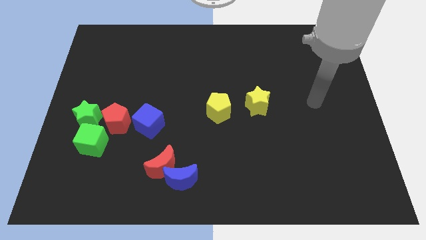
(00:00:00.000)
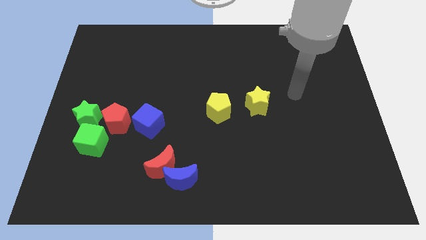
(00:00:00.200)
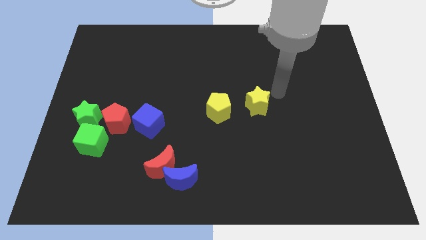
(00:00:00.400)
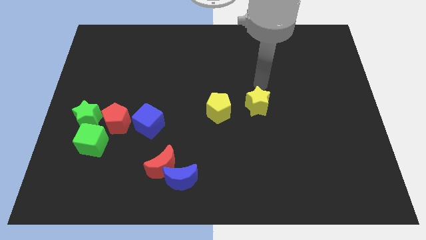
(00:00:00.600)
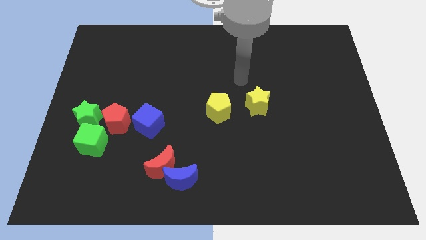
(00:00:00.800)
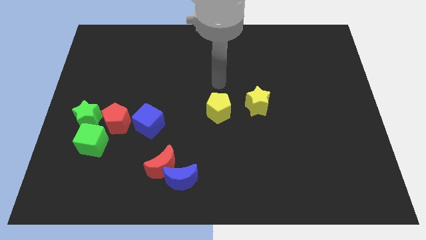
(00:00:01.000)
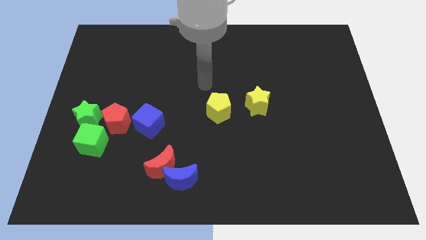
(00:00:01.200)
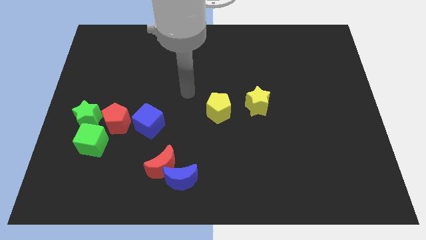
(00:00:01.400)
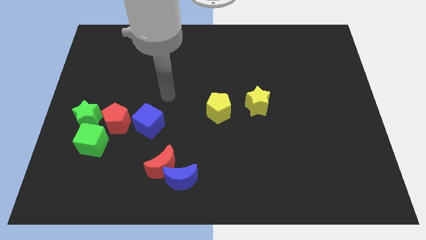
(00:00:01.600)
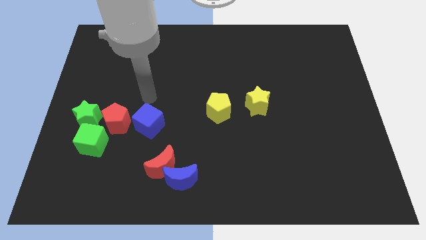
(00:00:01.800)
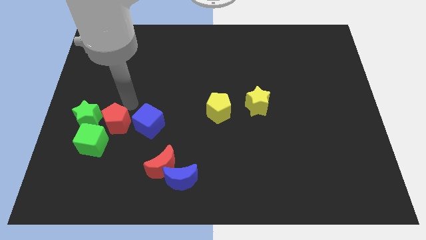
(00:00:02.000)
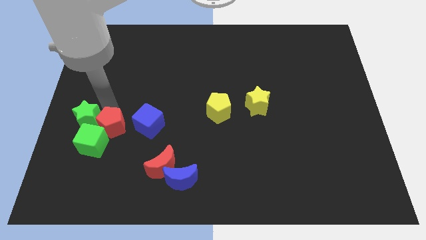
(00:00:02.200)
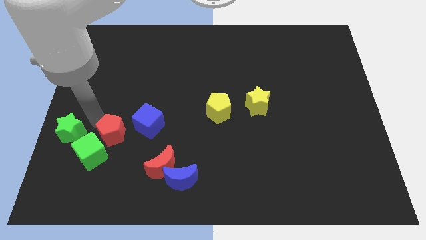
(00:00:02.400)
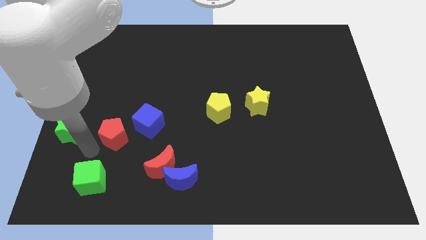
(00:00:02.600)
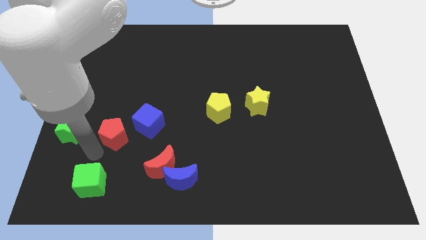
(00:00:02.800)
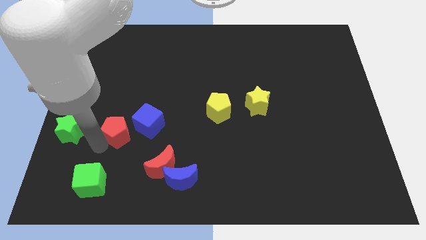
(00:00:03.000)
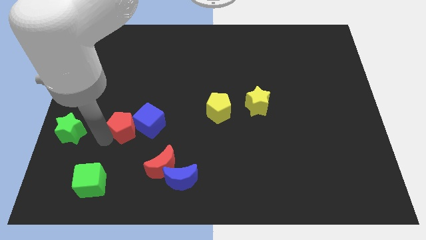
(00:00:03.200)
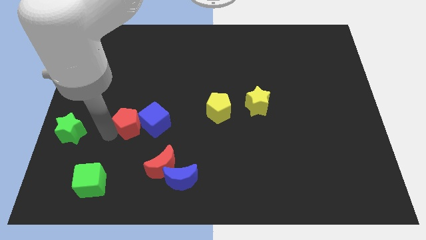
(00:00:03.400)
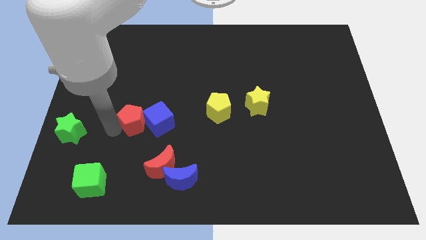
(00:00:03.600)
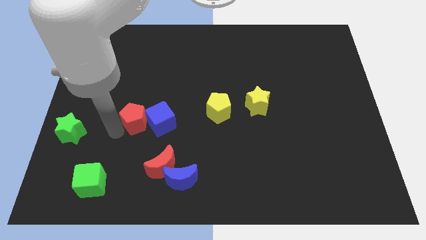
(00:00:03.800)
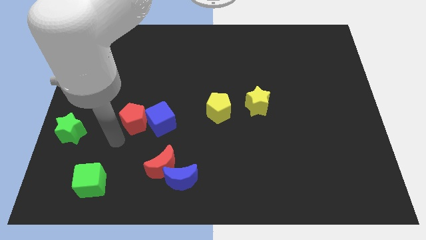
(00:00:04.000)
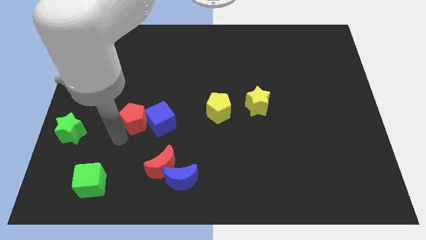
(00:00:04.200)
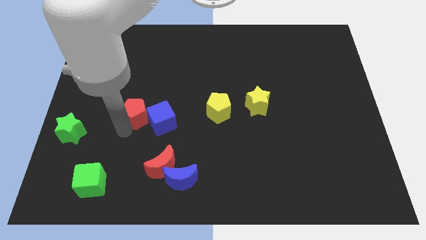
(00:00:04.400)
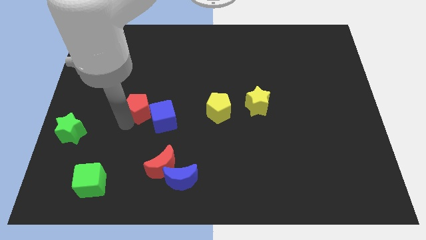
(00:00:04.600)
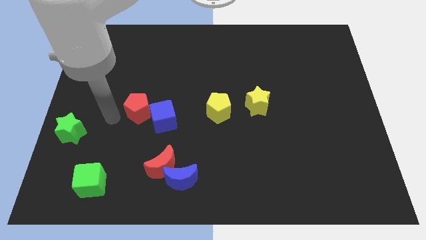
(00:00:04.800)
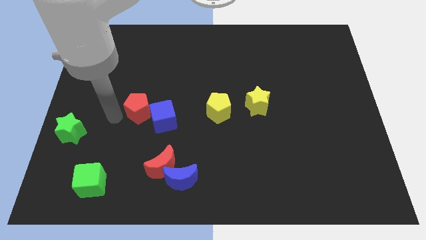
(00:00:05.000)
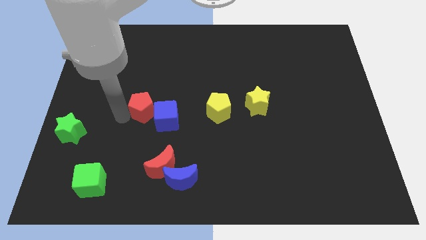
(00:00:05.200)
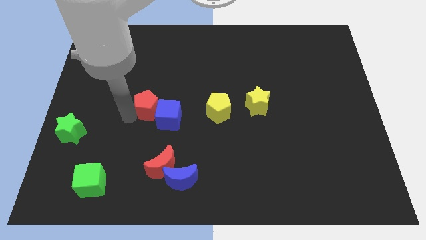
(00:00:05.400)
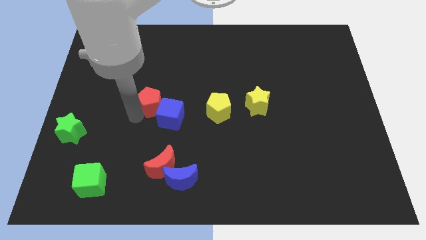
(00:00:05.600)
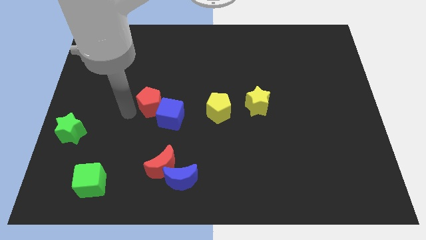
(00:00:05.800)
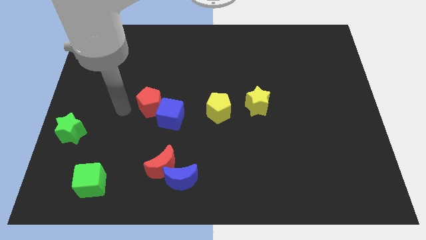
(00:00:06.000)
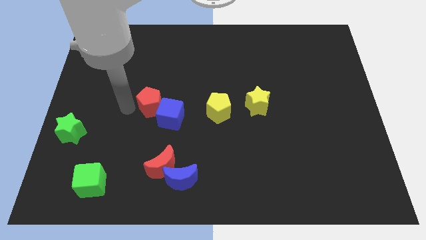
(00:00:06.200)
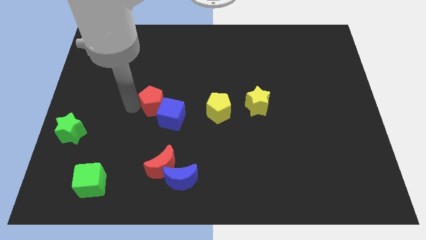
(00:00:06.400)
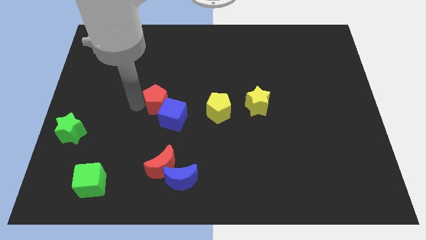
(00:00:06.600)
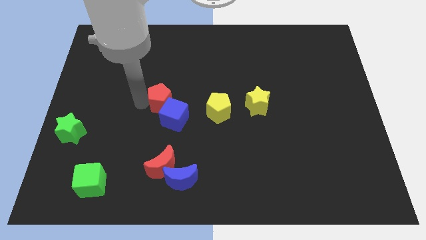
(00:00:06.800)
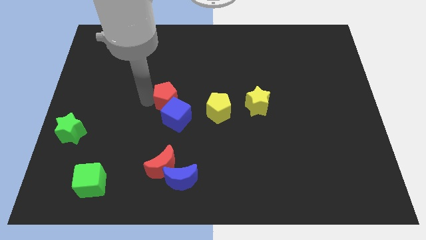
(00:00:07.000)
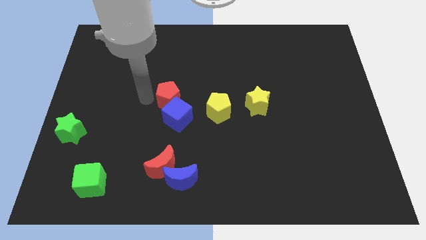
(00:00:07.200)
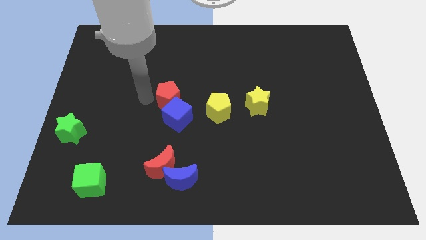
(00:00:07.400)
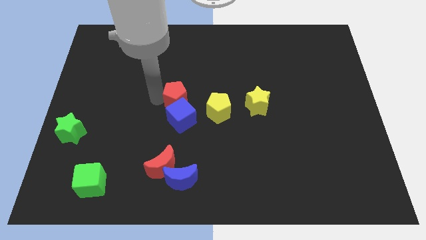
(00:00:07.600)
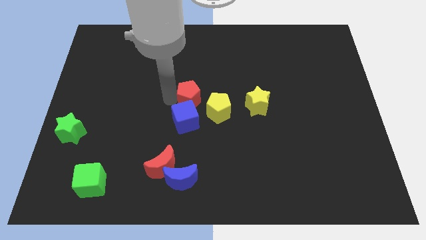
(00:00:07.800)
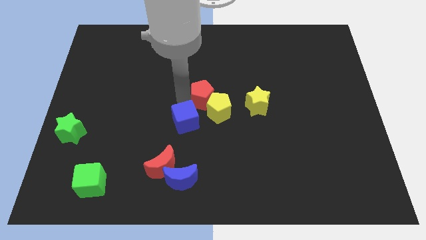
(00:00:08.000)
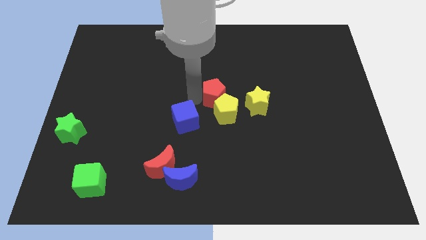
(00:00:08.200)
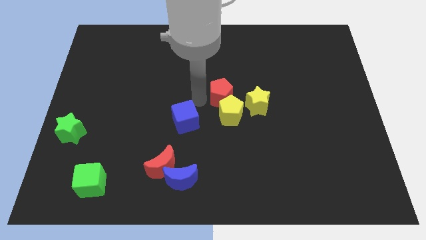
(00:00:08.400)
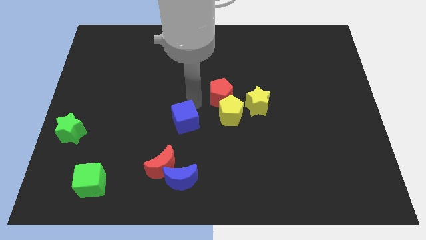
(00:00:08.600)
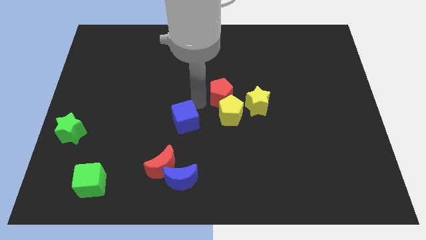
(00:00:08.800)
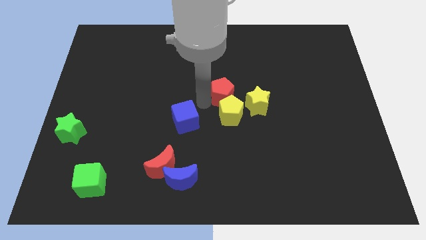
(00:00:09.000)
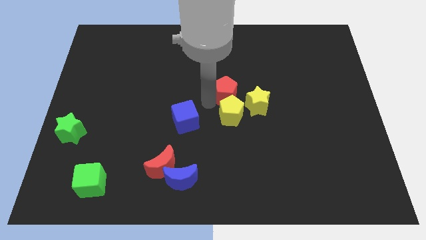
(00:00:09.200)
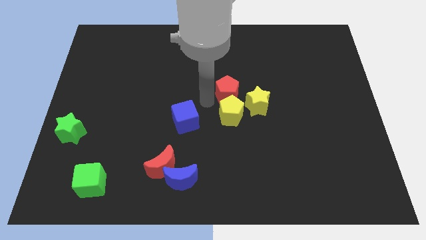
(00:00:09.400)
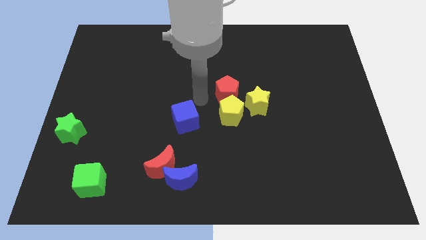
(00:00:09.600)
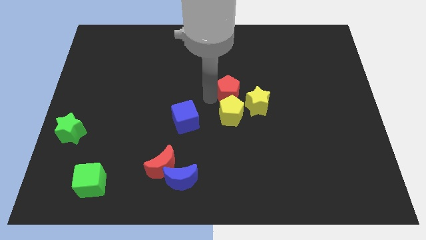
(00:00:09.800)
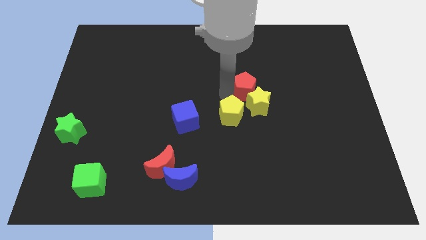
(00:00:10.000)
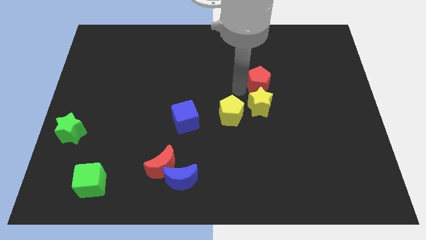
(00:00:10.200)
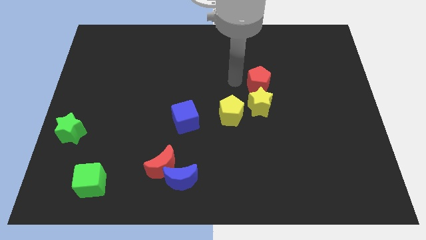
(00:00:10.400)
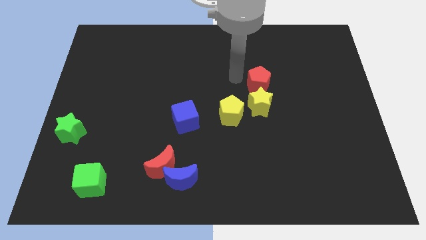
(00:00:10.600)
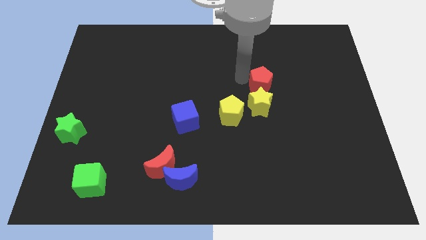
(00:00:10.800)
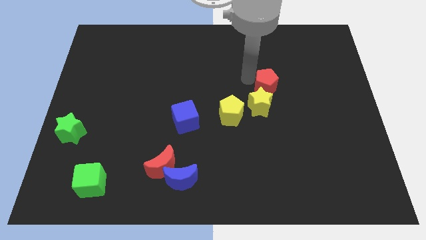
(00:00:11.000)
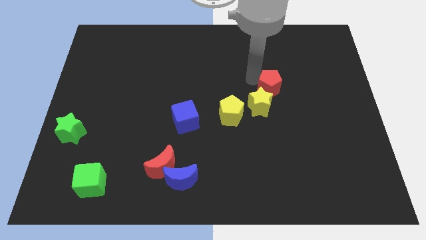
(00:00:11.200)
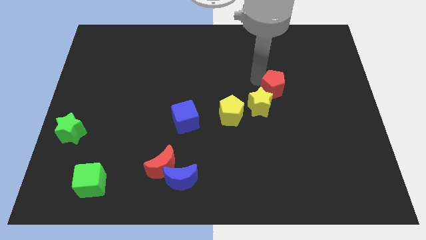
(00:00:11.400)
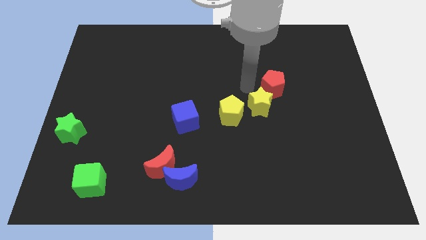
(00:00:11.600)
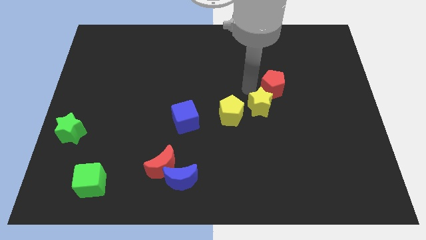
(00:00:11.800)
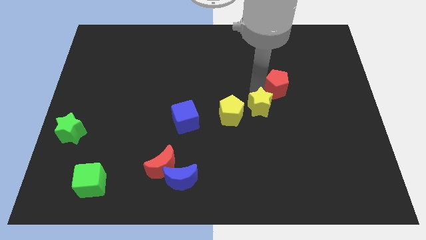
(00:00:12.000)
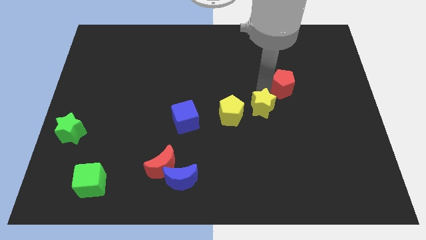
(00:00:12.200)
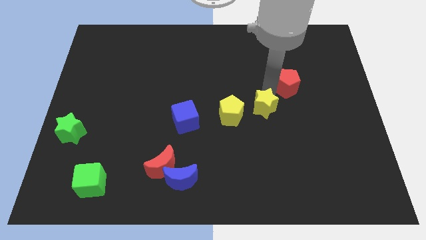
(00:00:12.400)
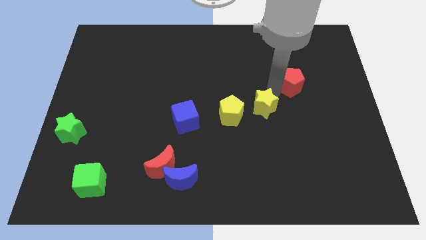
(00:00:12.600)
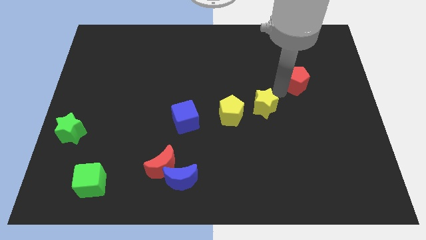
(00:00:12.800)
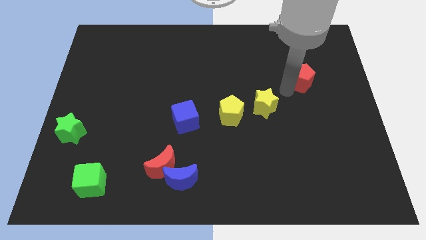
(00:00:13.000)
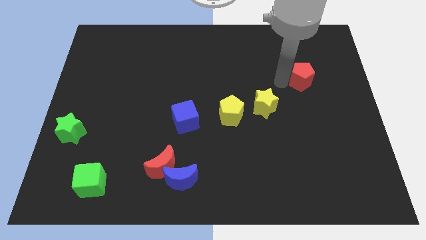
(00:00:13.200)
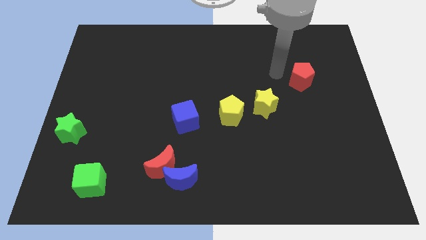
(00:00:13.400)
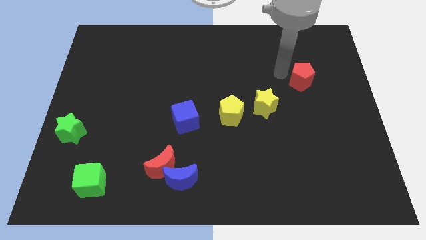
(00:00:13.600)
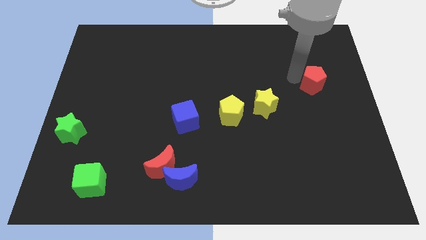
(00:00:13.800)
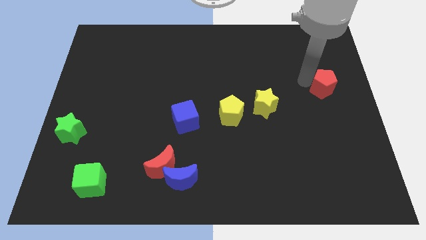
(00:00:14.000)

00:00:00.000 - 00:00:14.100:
move the red pentagon to the center right

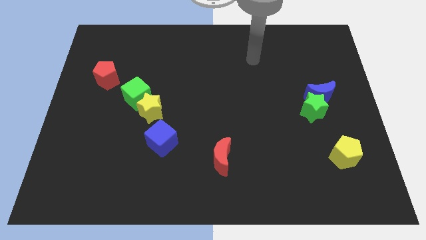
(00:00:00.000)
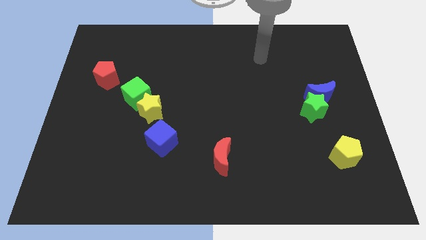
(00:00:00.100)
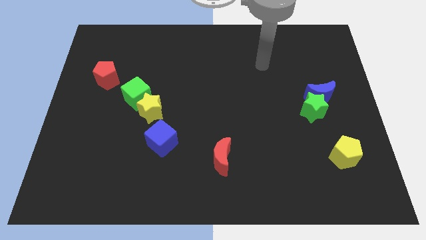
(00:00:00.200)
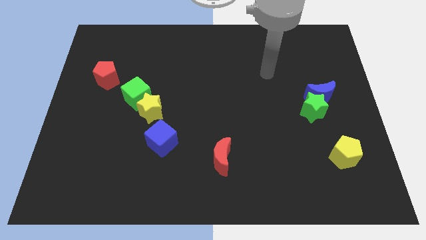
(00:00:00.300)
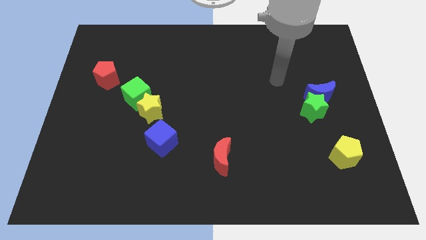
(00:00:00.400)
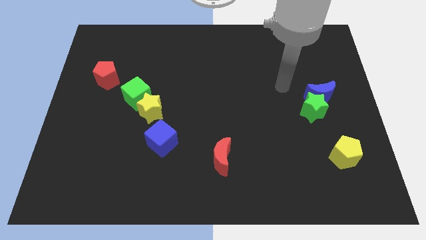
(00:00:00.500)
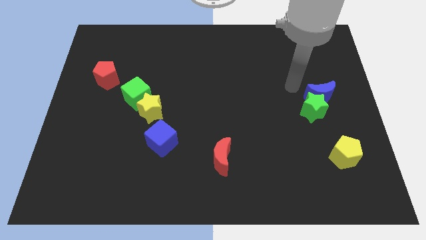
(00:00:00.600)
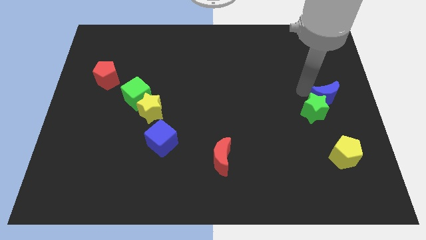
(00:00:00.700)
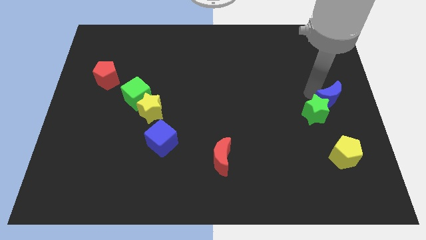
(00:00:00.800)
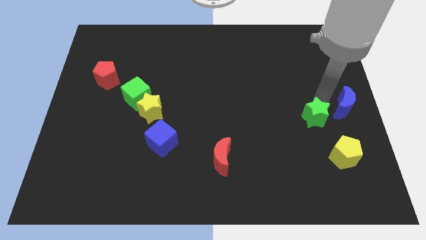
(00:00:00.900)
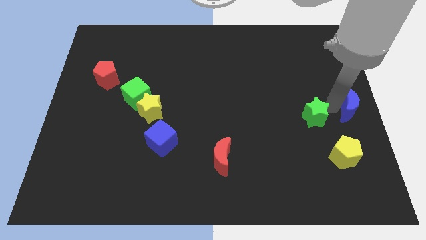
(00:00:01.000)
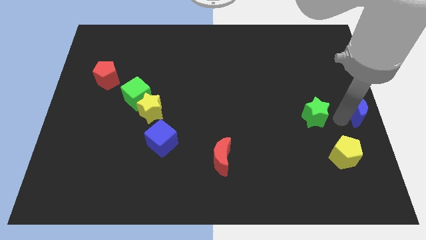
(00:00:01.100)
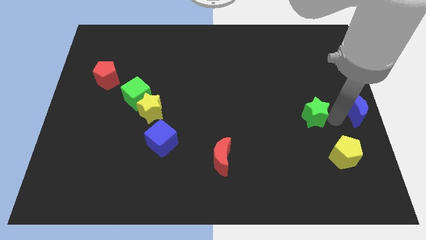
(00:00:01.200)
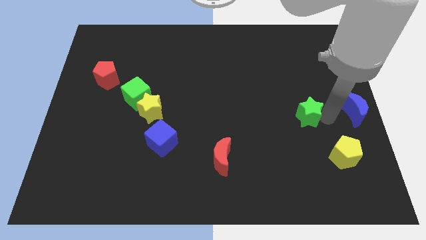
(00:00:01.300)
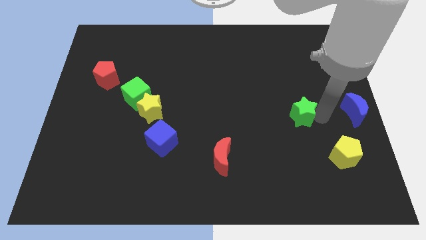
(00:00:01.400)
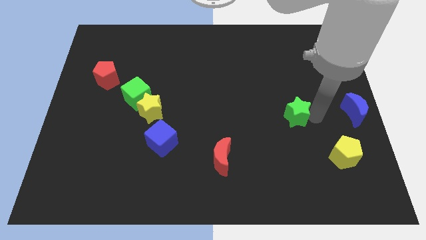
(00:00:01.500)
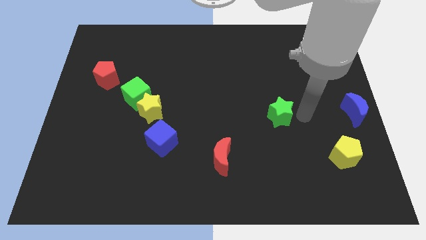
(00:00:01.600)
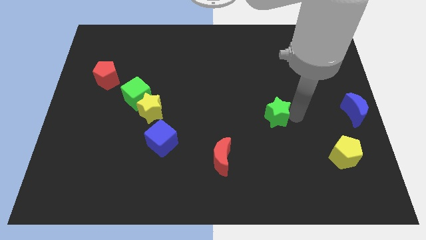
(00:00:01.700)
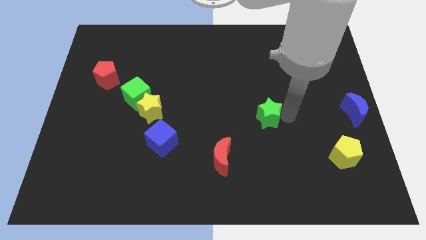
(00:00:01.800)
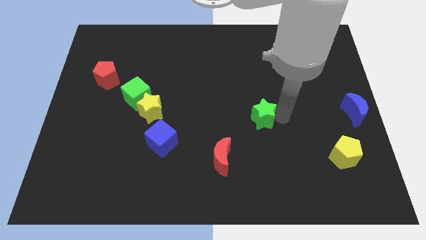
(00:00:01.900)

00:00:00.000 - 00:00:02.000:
slide the green star to the center of the board
